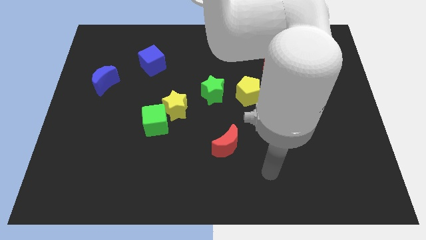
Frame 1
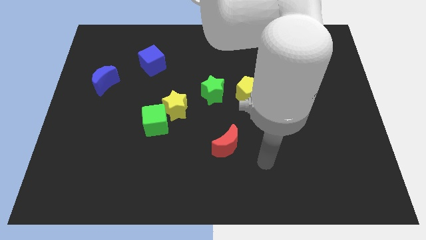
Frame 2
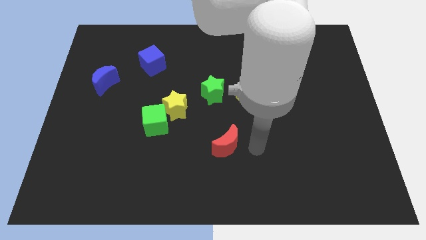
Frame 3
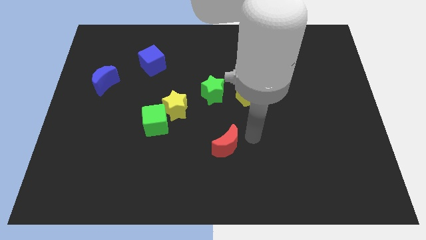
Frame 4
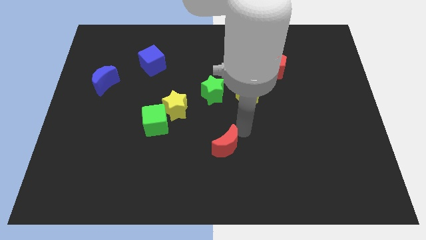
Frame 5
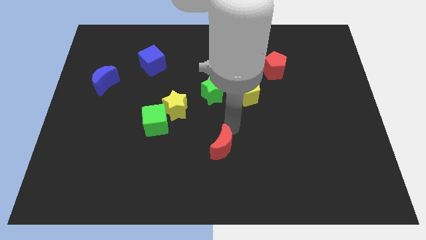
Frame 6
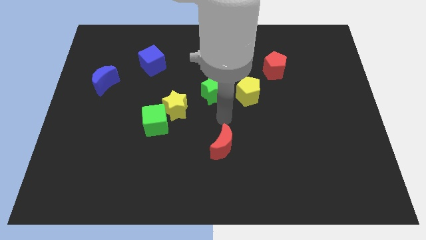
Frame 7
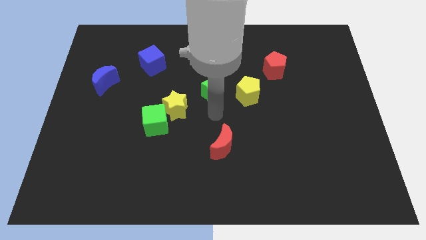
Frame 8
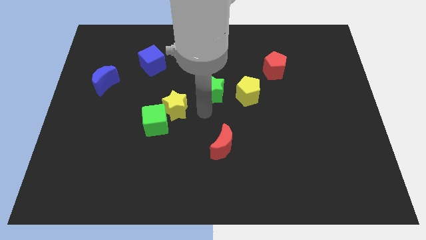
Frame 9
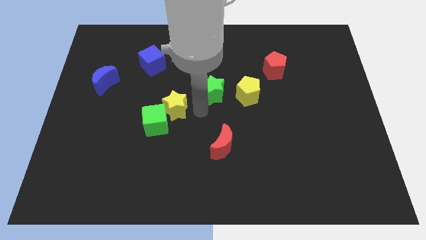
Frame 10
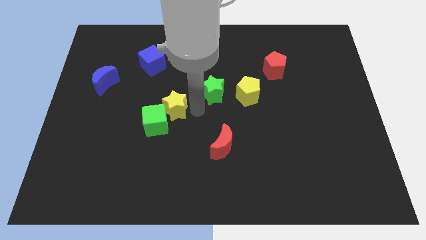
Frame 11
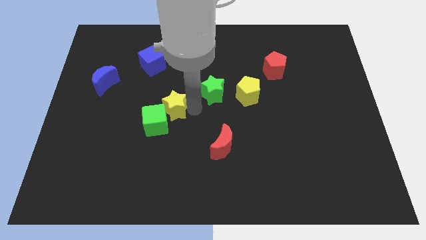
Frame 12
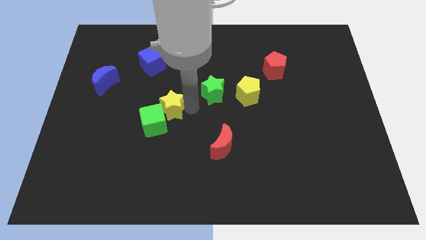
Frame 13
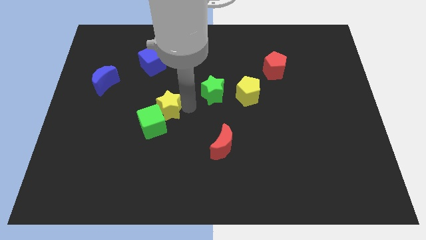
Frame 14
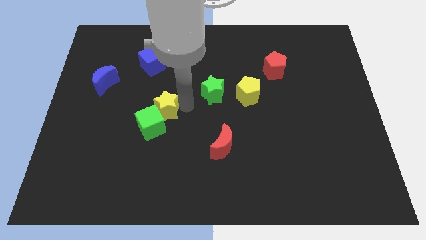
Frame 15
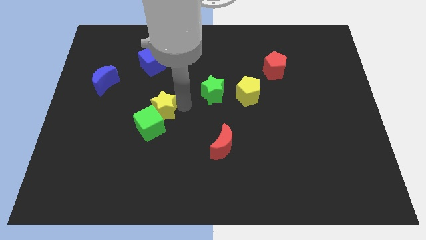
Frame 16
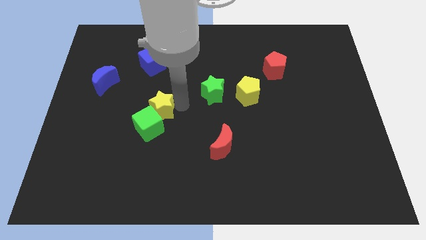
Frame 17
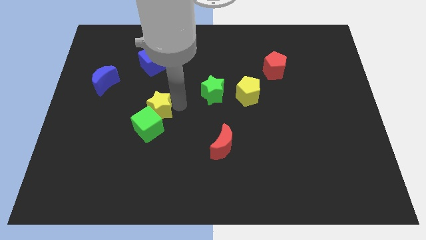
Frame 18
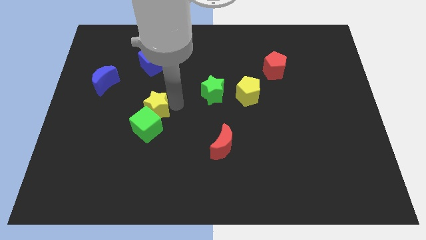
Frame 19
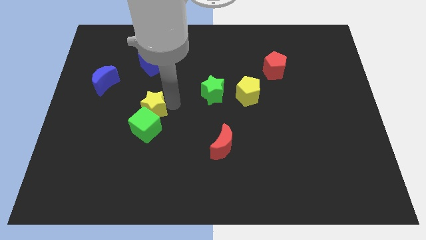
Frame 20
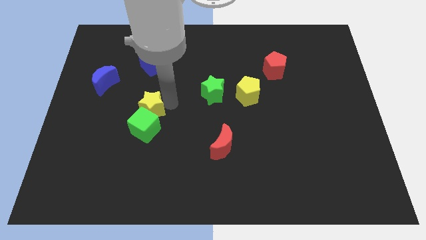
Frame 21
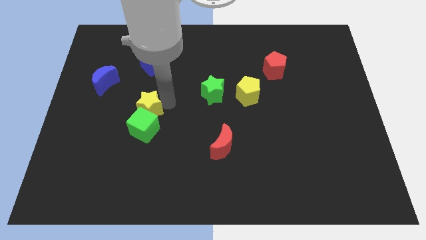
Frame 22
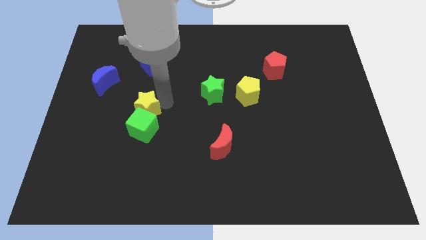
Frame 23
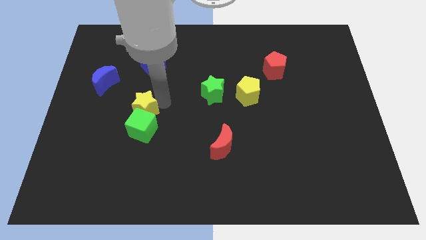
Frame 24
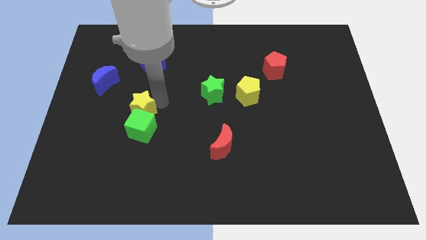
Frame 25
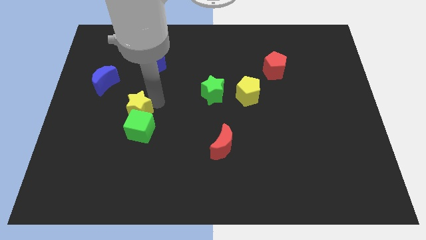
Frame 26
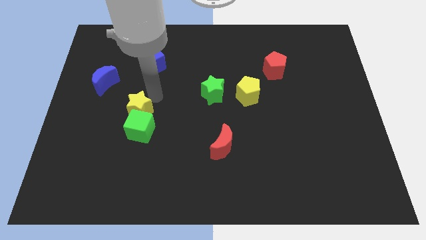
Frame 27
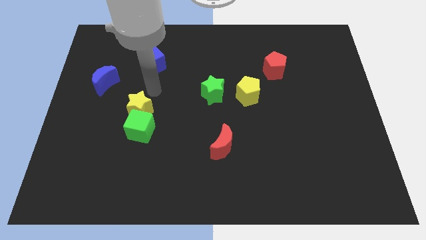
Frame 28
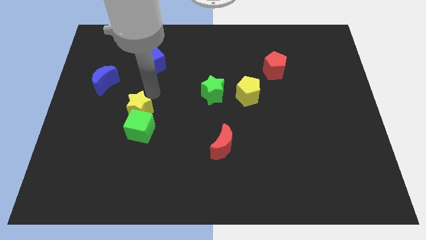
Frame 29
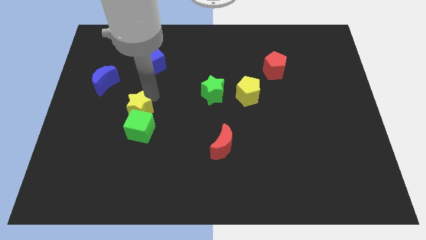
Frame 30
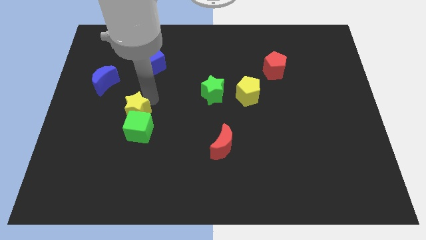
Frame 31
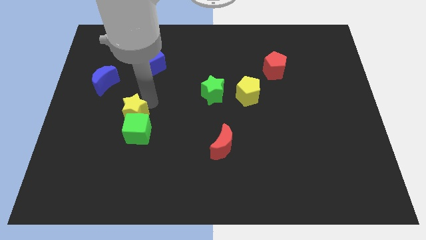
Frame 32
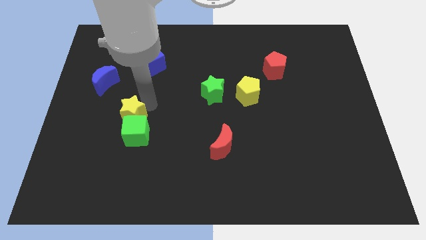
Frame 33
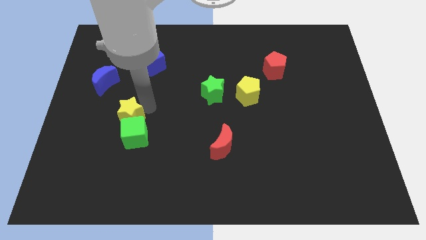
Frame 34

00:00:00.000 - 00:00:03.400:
slightly move the yellow star diagonally down and left

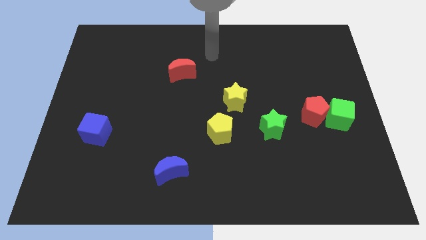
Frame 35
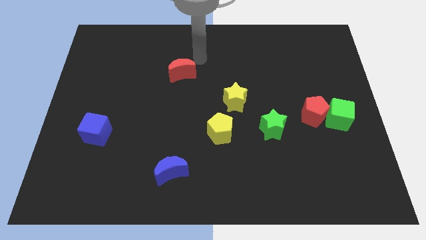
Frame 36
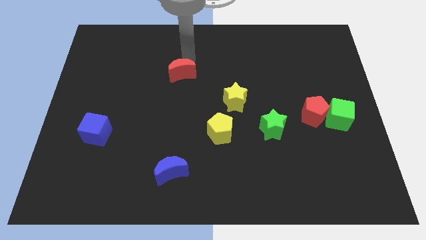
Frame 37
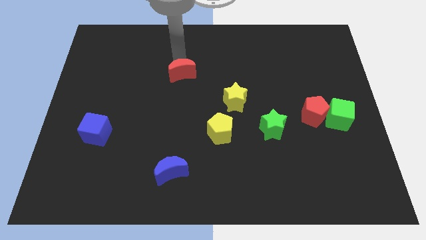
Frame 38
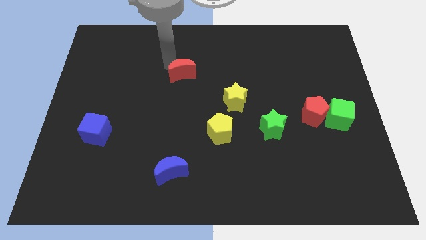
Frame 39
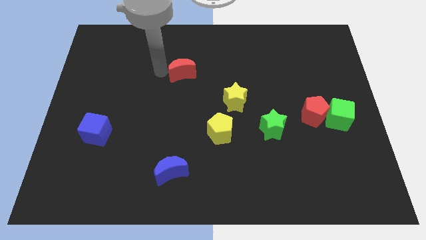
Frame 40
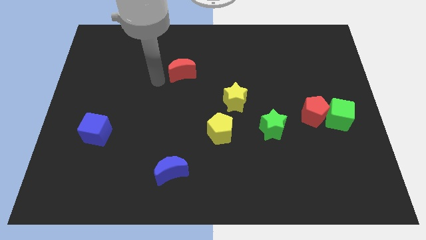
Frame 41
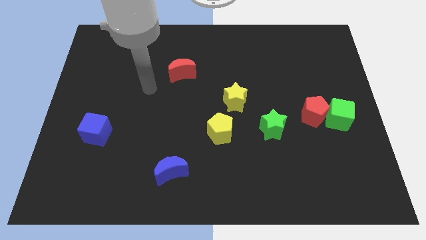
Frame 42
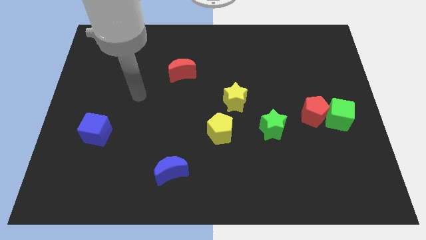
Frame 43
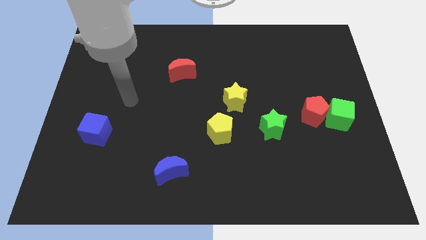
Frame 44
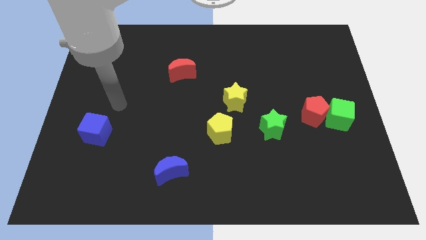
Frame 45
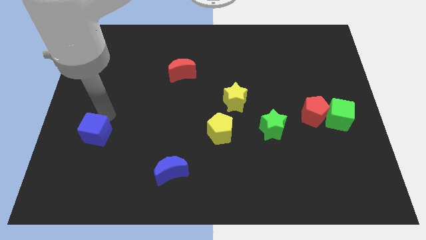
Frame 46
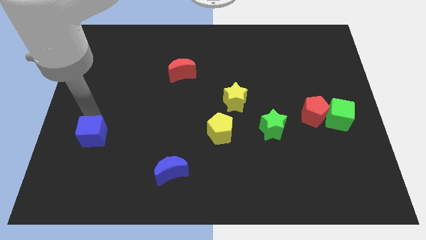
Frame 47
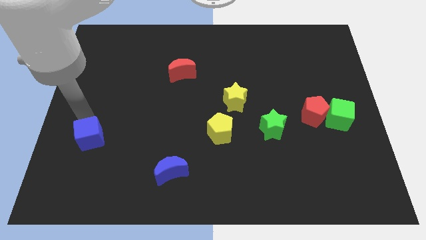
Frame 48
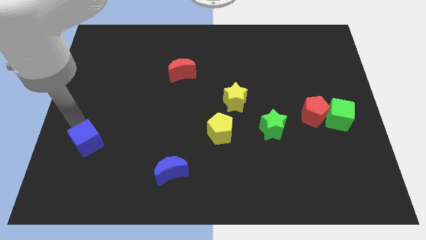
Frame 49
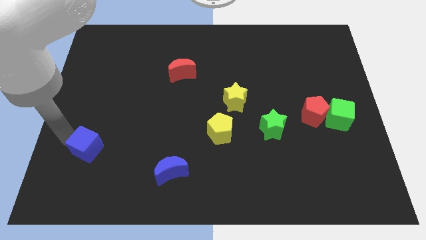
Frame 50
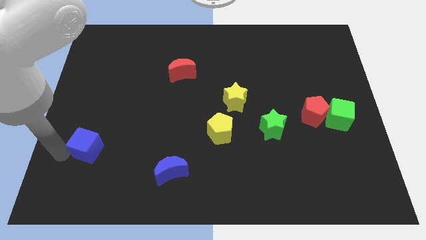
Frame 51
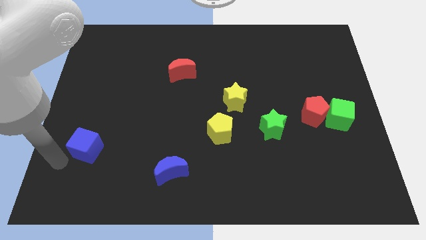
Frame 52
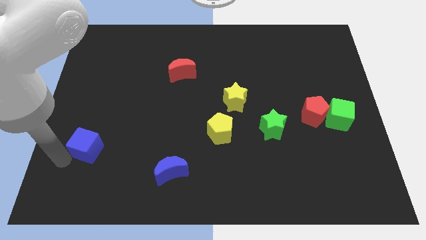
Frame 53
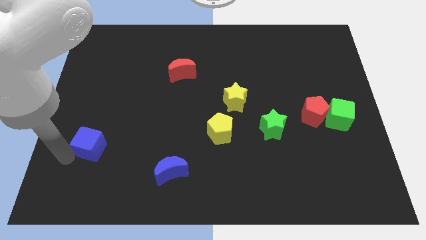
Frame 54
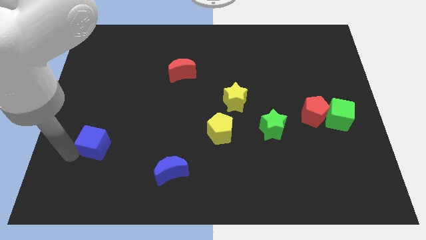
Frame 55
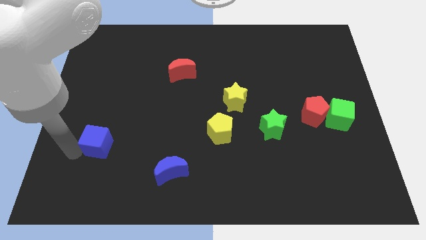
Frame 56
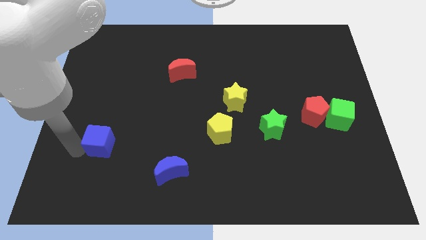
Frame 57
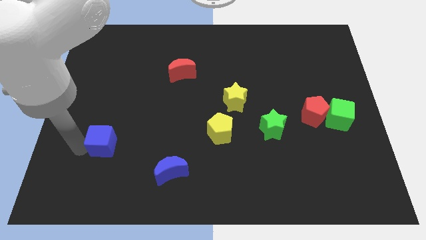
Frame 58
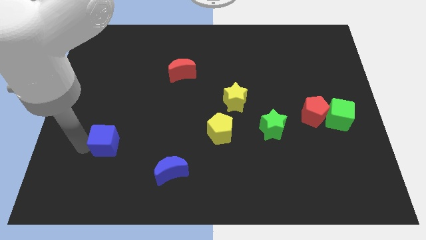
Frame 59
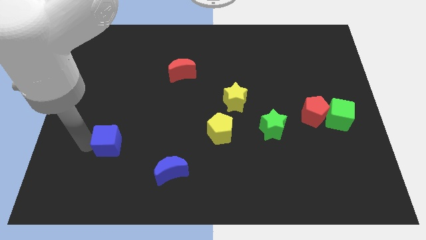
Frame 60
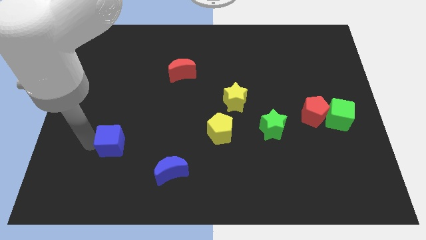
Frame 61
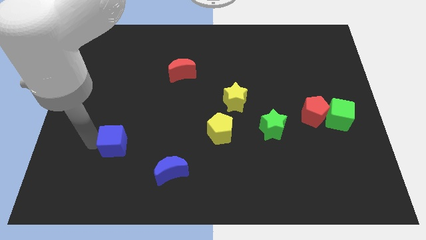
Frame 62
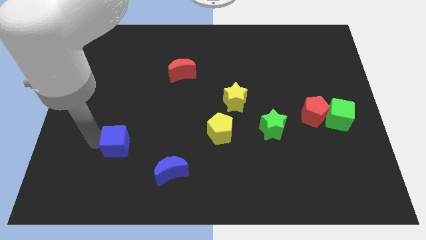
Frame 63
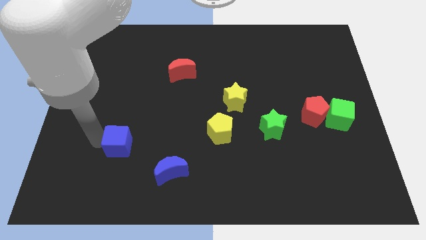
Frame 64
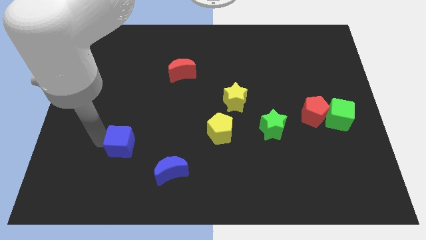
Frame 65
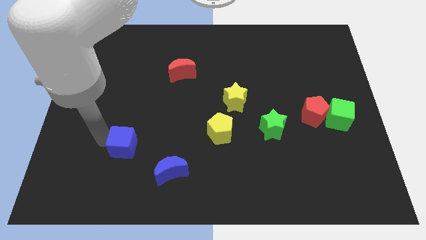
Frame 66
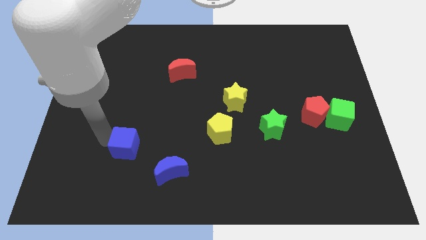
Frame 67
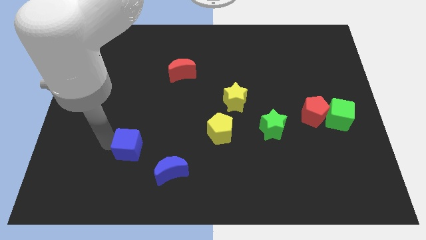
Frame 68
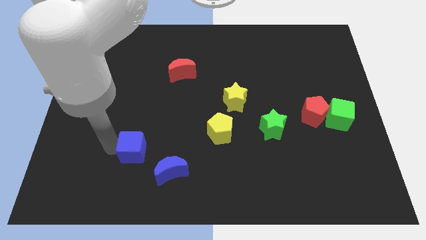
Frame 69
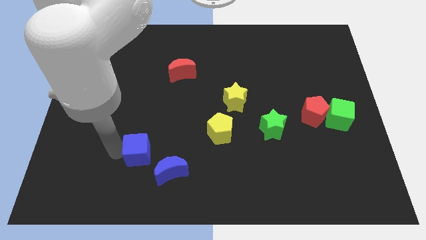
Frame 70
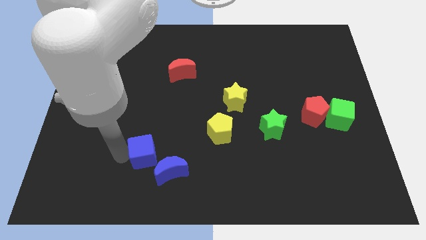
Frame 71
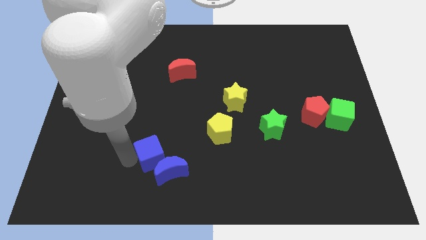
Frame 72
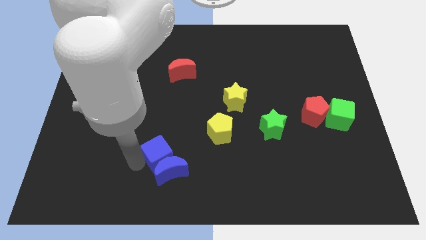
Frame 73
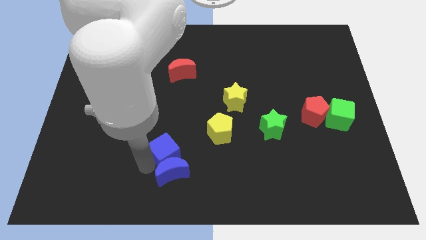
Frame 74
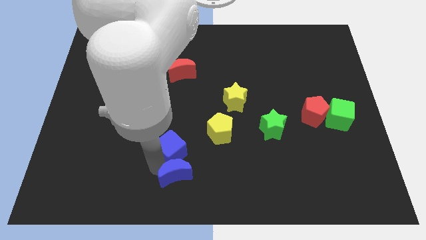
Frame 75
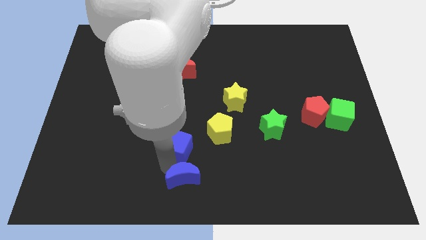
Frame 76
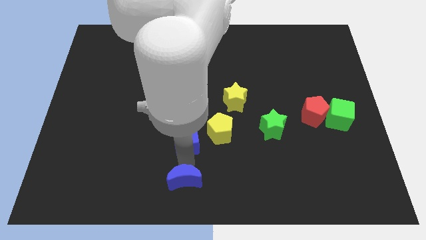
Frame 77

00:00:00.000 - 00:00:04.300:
move the blue cube to the right

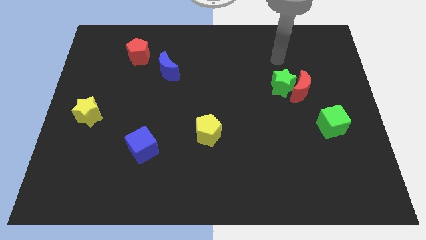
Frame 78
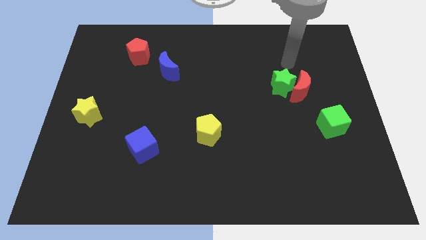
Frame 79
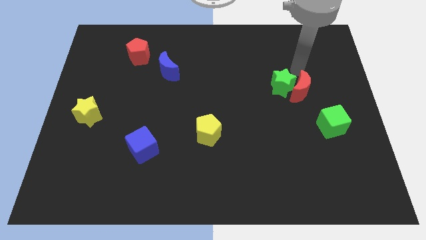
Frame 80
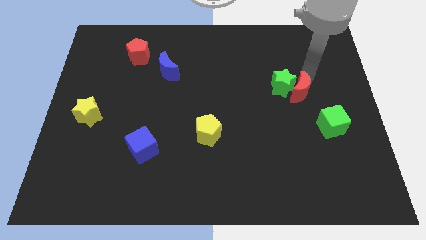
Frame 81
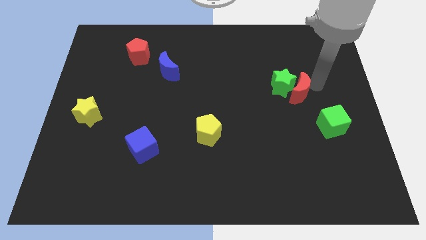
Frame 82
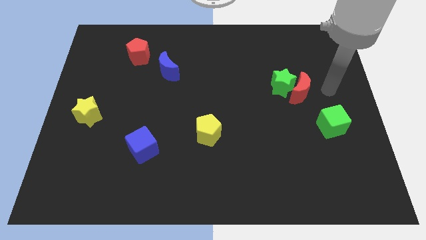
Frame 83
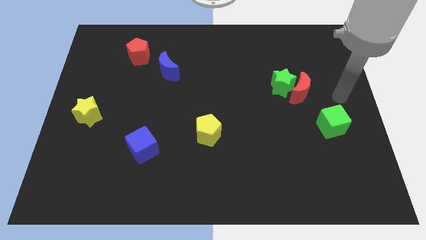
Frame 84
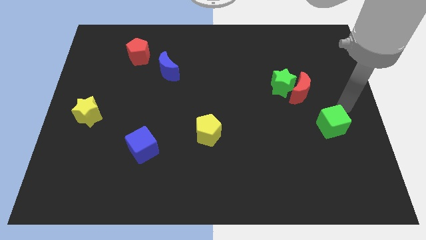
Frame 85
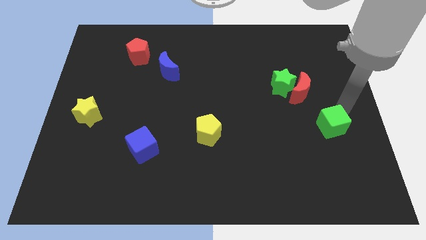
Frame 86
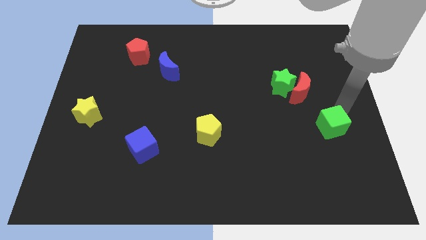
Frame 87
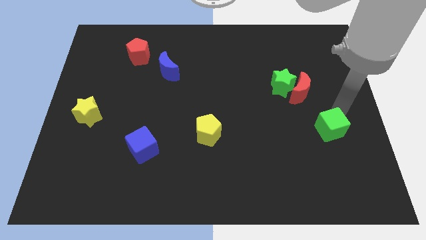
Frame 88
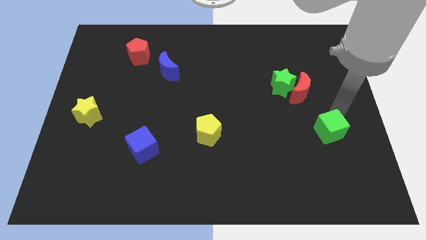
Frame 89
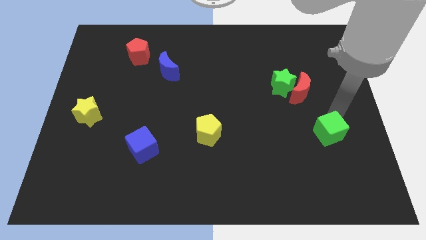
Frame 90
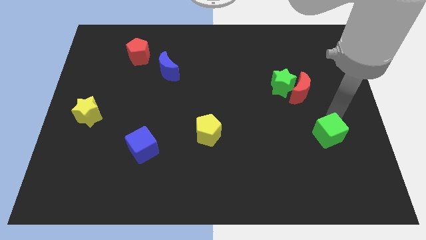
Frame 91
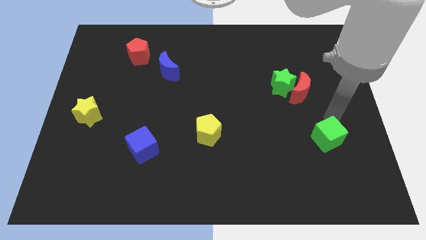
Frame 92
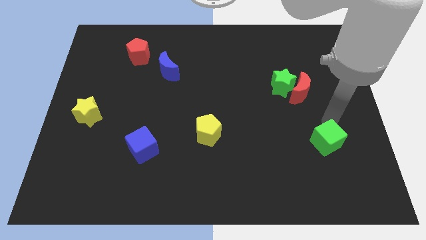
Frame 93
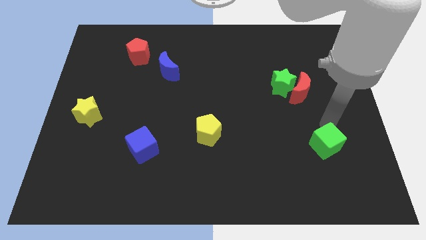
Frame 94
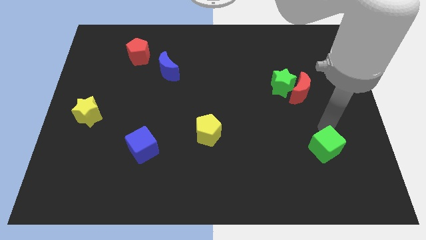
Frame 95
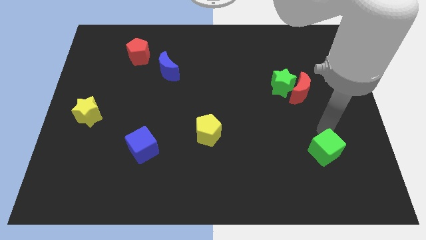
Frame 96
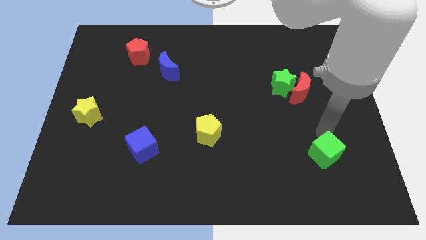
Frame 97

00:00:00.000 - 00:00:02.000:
push the green cube downwards and to the left somewhat
